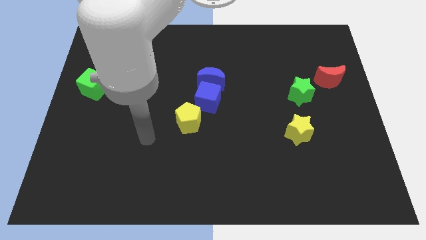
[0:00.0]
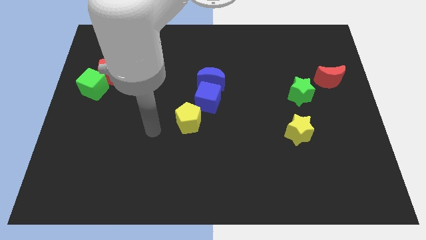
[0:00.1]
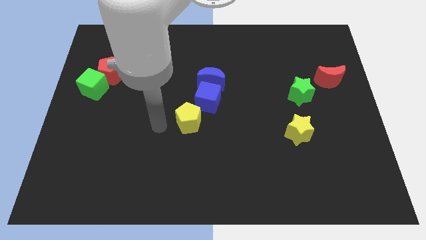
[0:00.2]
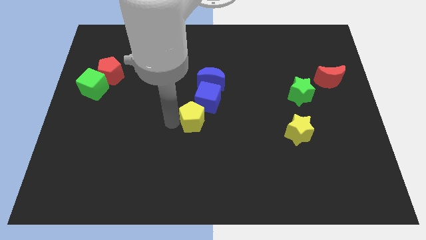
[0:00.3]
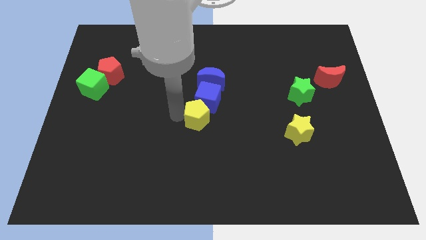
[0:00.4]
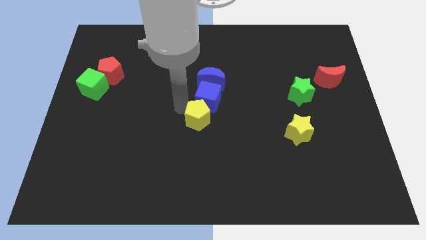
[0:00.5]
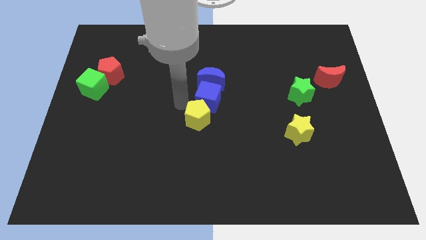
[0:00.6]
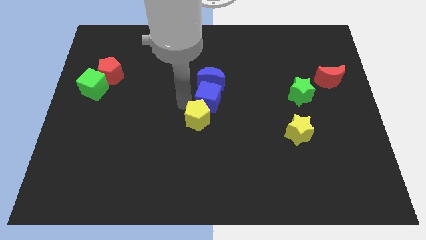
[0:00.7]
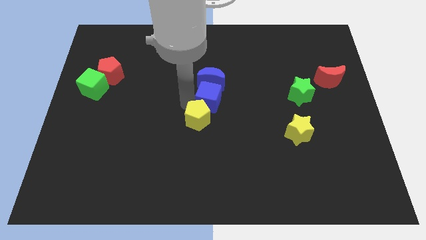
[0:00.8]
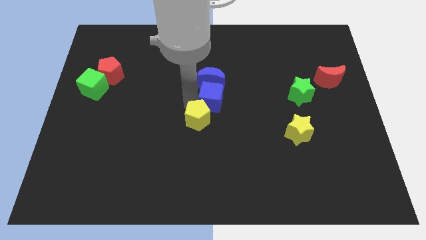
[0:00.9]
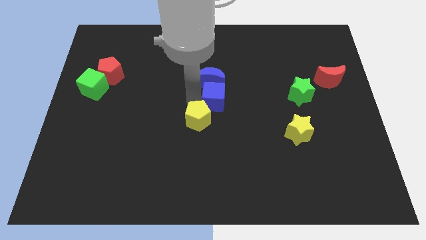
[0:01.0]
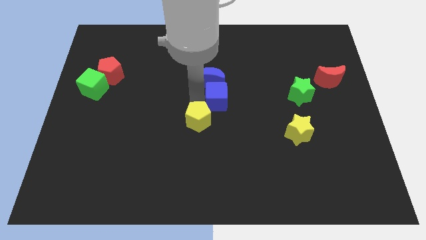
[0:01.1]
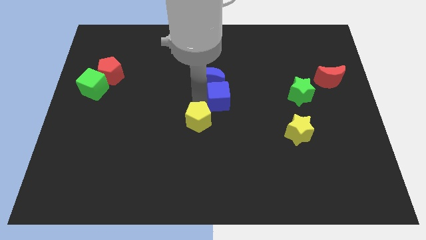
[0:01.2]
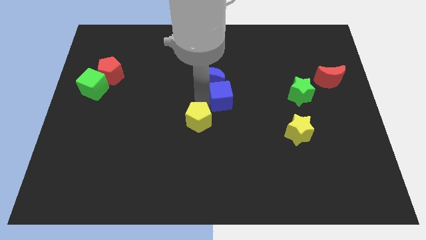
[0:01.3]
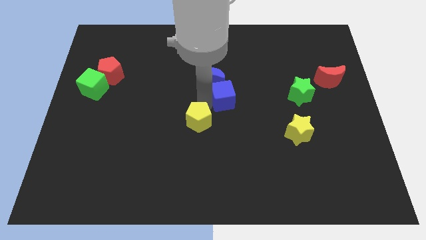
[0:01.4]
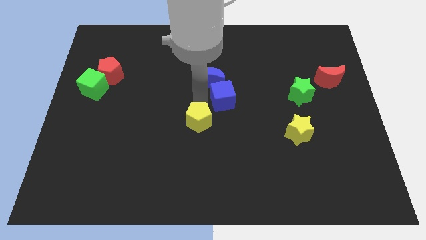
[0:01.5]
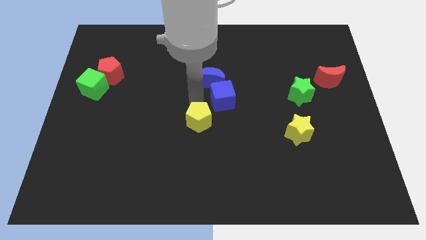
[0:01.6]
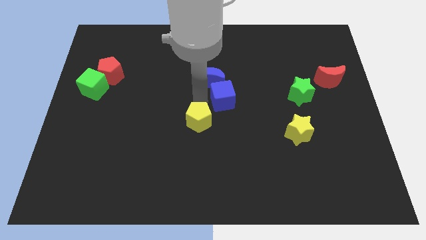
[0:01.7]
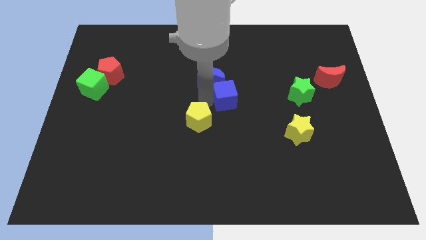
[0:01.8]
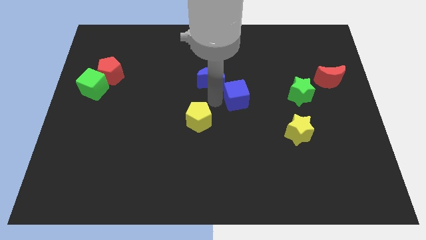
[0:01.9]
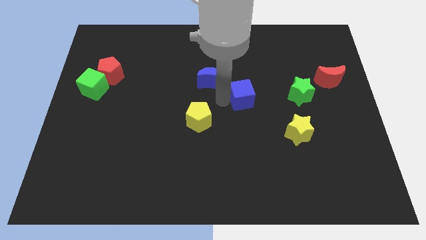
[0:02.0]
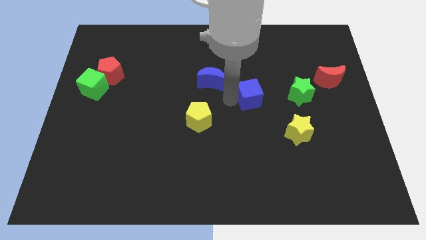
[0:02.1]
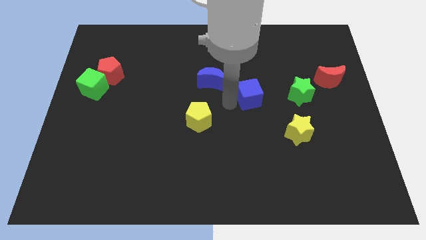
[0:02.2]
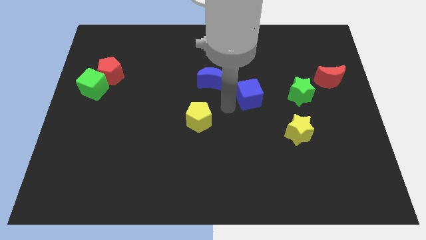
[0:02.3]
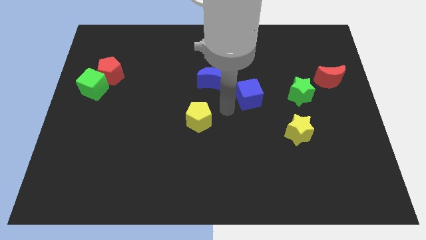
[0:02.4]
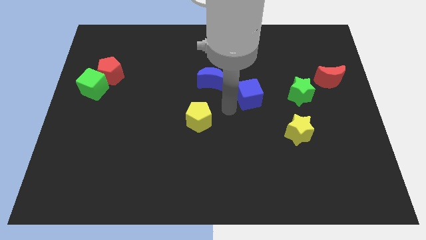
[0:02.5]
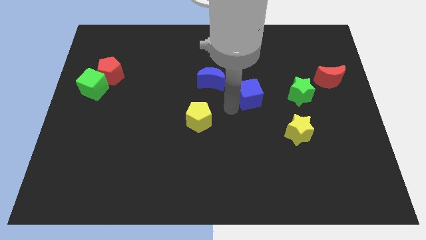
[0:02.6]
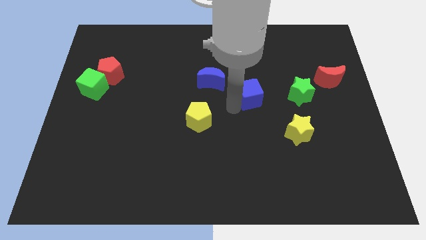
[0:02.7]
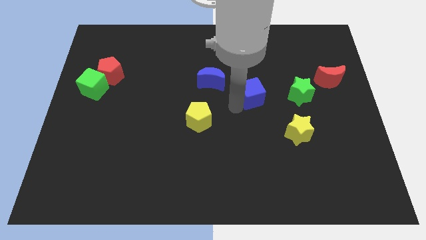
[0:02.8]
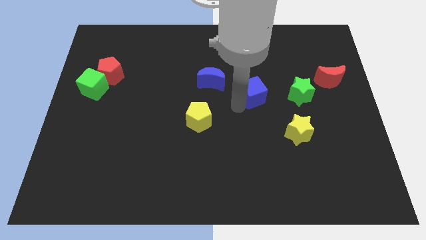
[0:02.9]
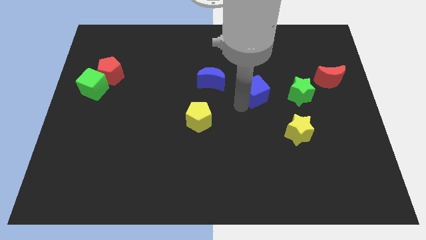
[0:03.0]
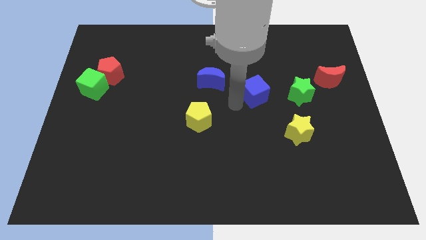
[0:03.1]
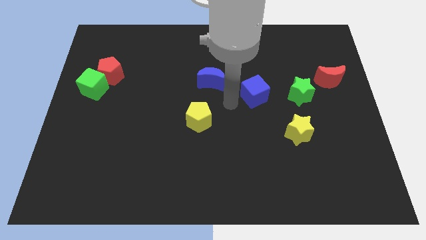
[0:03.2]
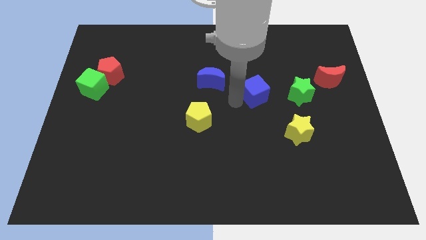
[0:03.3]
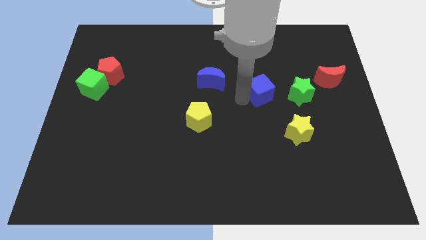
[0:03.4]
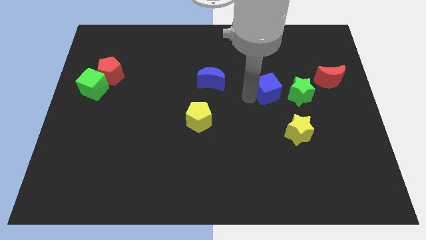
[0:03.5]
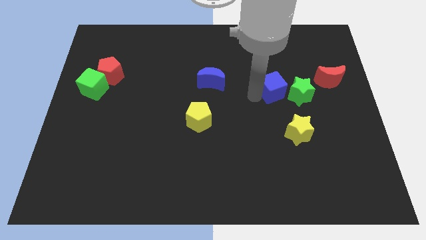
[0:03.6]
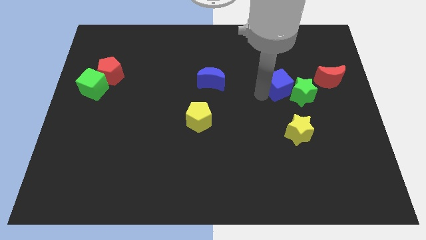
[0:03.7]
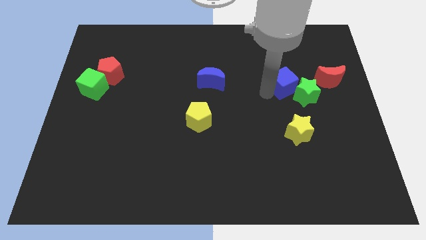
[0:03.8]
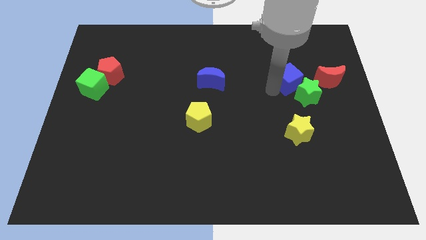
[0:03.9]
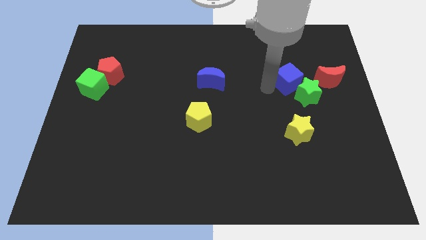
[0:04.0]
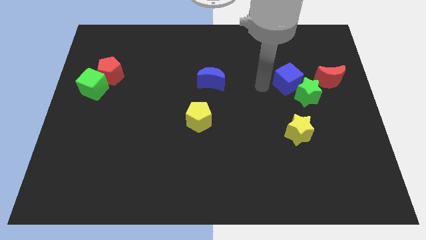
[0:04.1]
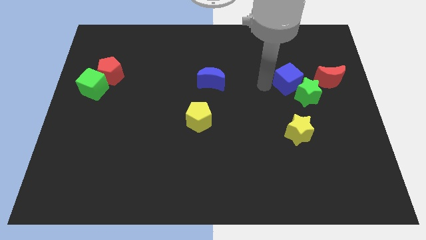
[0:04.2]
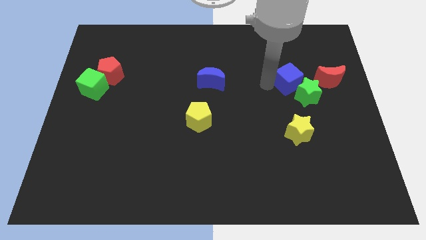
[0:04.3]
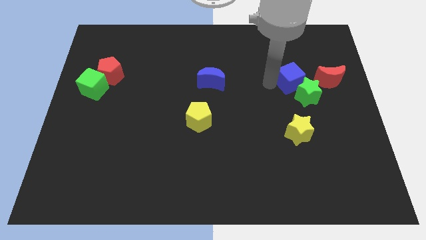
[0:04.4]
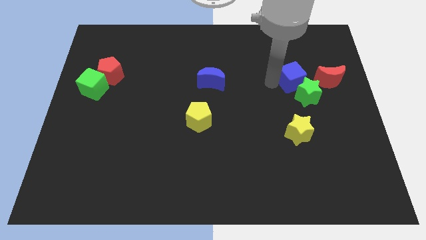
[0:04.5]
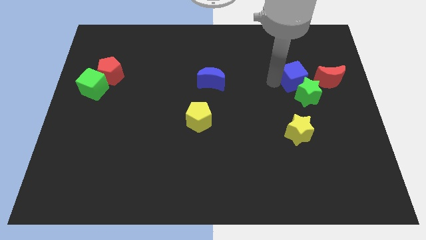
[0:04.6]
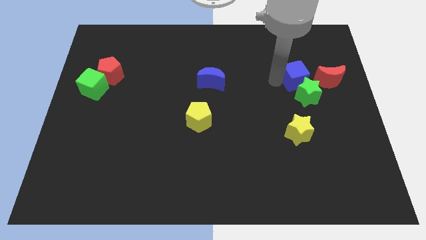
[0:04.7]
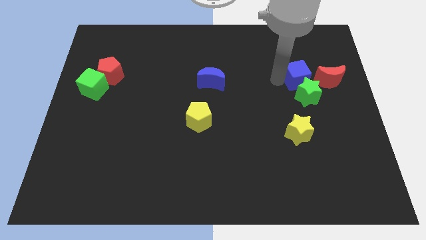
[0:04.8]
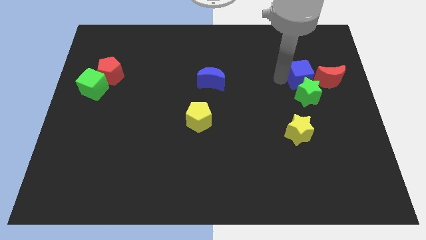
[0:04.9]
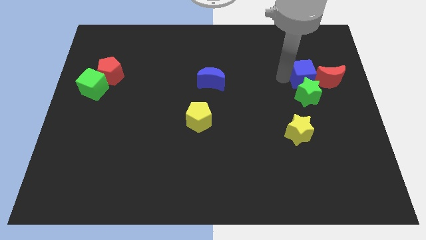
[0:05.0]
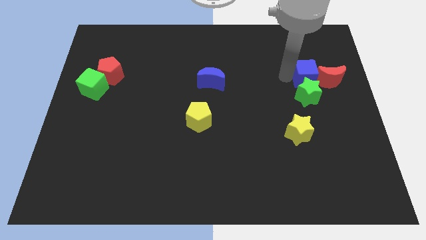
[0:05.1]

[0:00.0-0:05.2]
move the blue cube close to the red moon

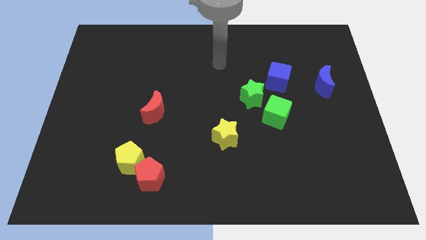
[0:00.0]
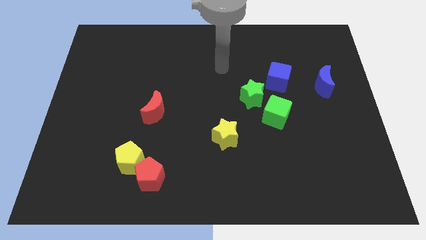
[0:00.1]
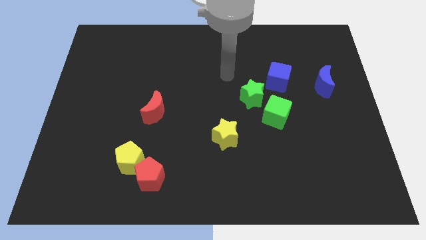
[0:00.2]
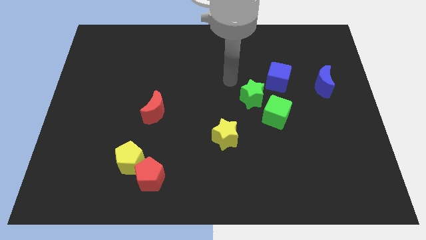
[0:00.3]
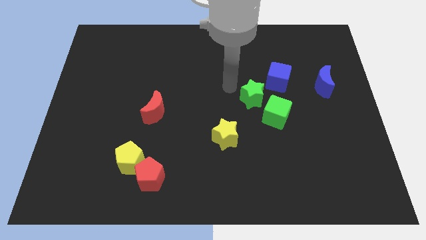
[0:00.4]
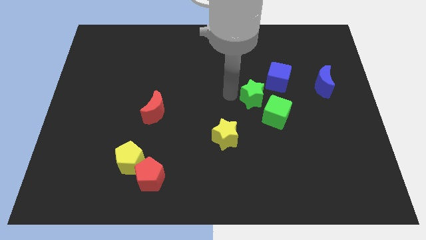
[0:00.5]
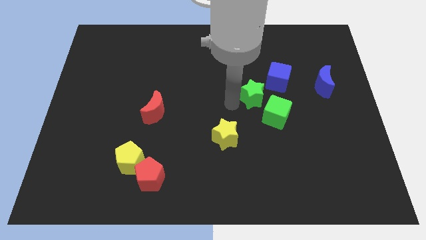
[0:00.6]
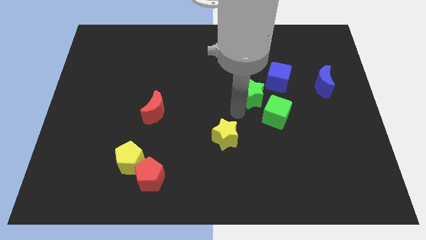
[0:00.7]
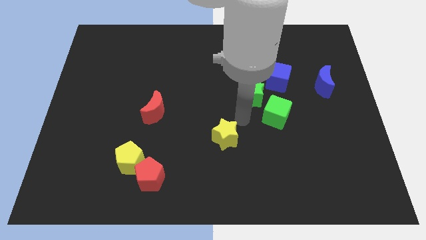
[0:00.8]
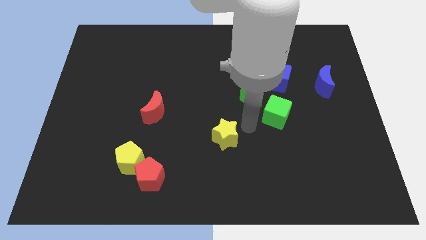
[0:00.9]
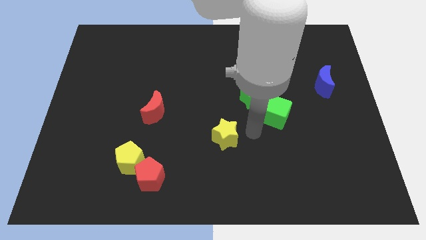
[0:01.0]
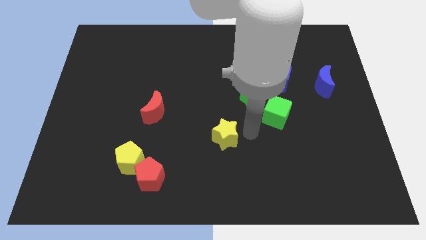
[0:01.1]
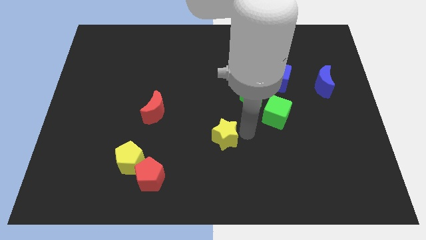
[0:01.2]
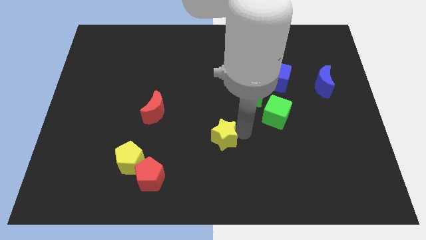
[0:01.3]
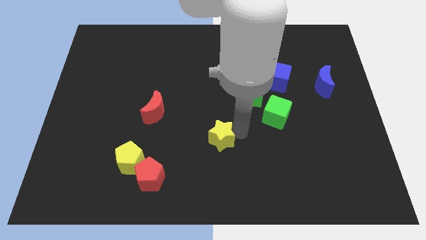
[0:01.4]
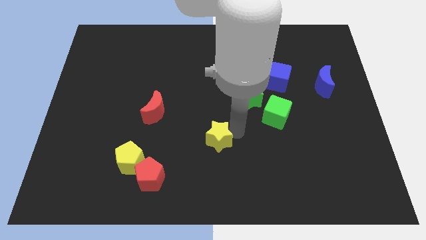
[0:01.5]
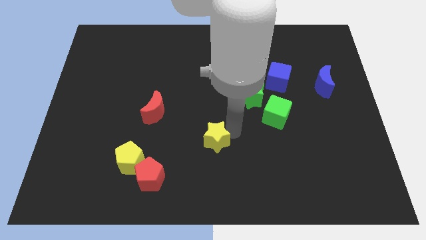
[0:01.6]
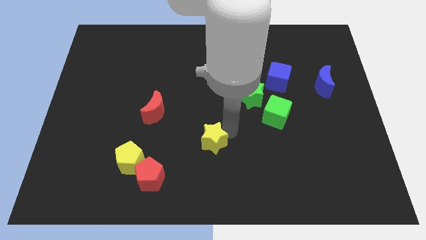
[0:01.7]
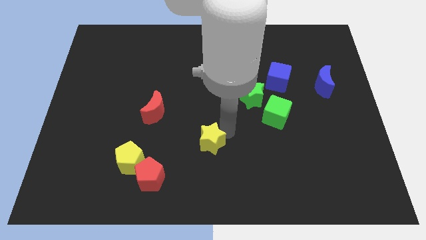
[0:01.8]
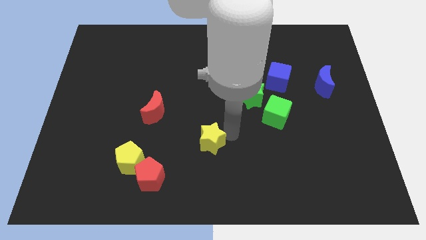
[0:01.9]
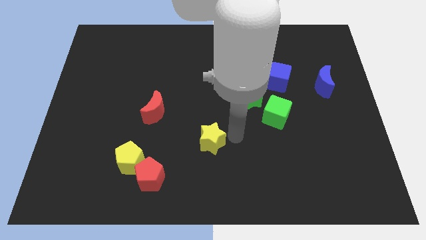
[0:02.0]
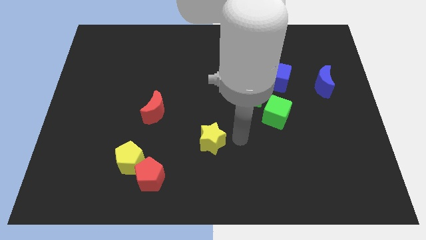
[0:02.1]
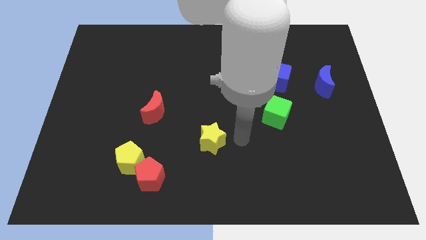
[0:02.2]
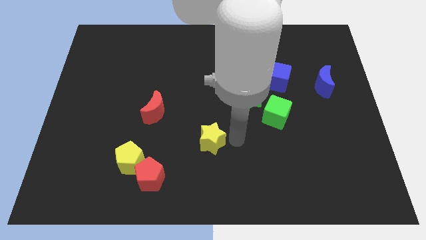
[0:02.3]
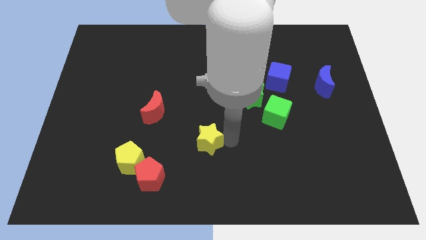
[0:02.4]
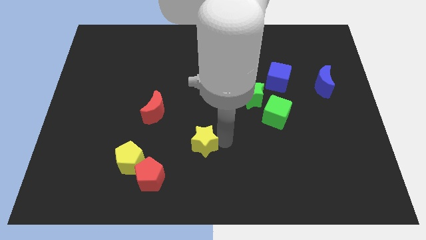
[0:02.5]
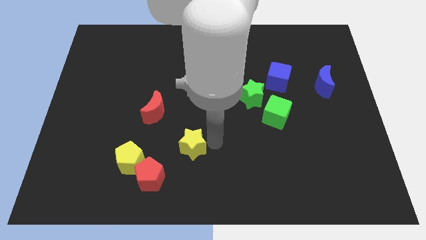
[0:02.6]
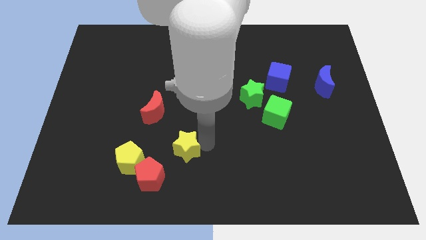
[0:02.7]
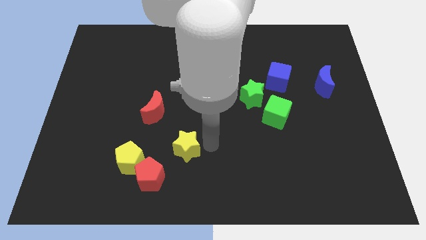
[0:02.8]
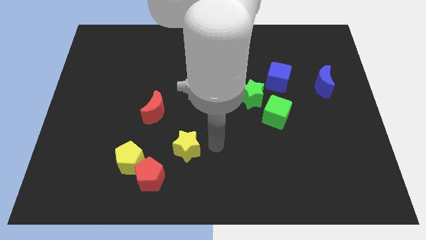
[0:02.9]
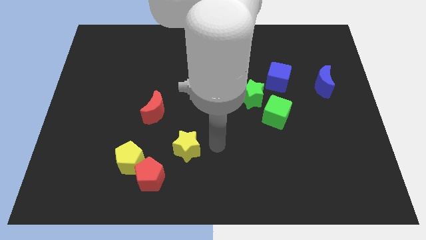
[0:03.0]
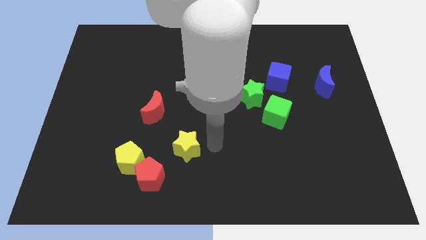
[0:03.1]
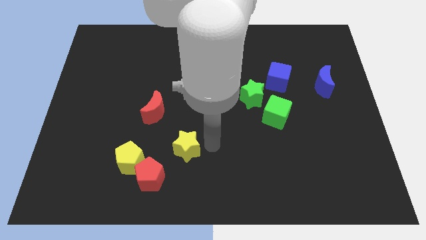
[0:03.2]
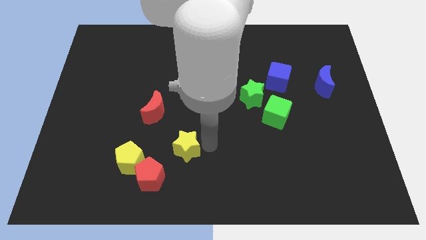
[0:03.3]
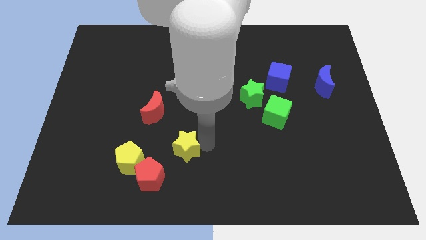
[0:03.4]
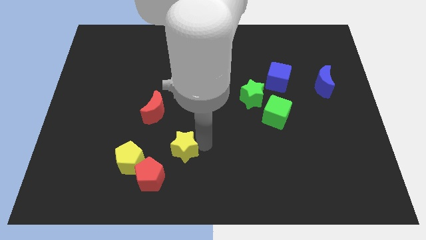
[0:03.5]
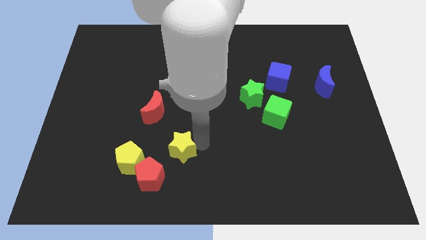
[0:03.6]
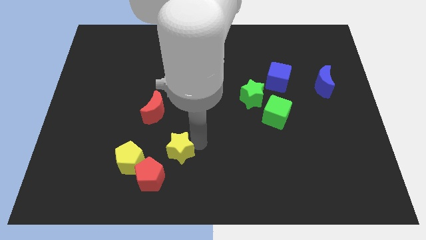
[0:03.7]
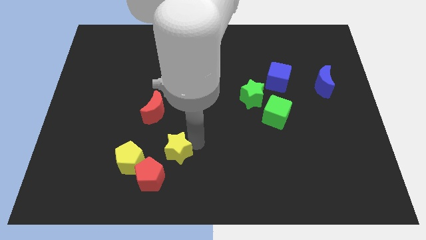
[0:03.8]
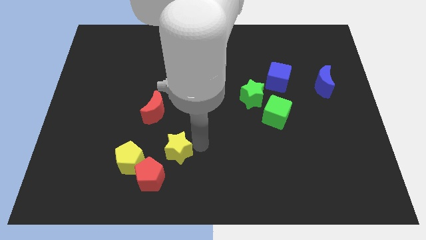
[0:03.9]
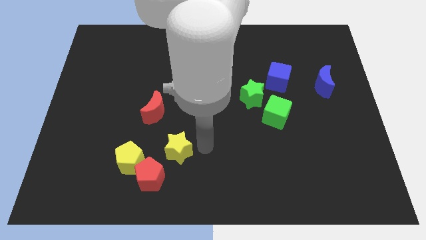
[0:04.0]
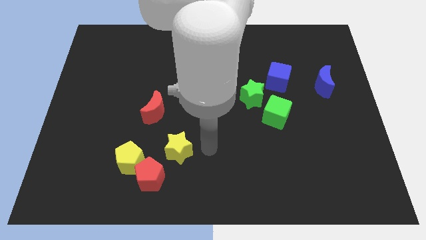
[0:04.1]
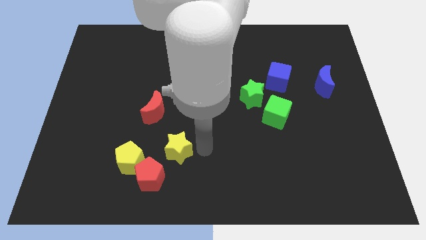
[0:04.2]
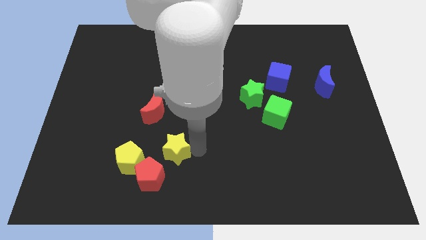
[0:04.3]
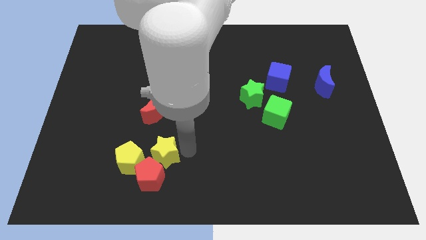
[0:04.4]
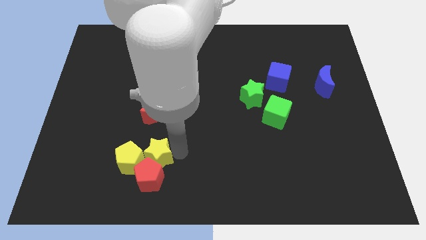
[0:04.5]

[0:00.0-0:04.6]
push the yellow star towards the yellow pentagon
